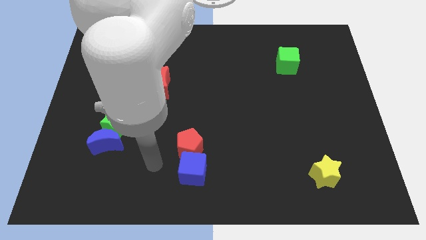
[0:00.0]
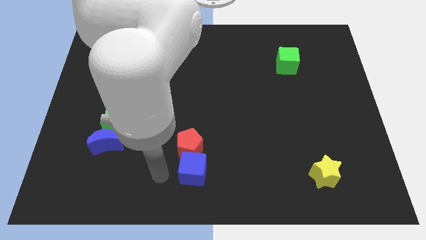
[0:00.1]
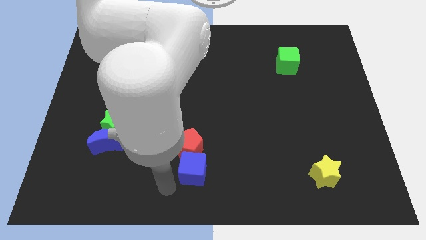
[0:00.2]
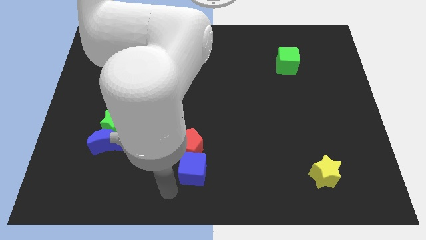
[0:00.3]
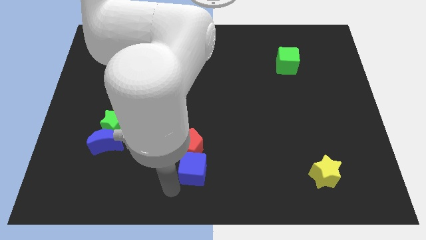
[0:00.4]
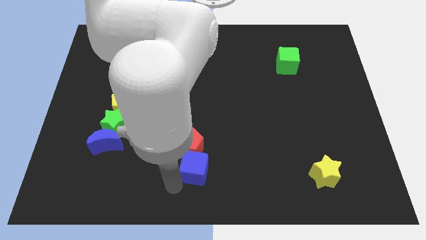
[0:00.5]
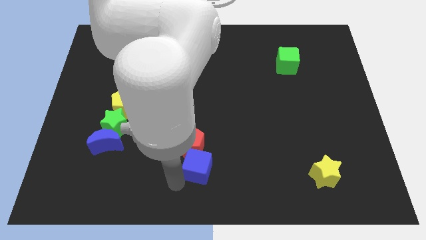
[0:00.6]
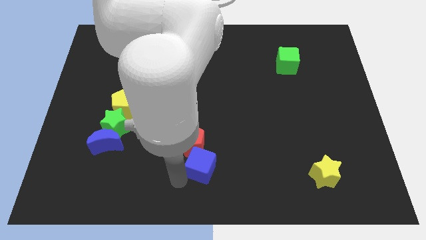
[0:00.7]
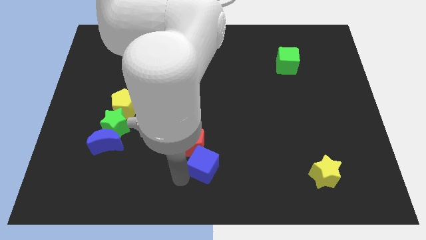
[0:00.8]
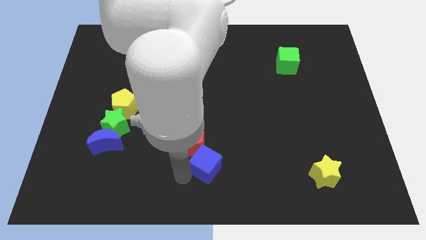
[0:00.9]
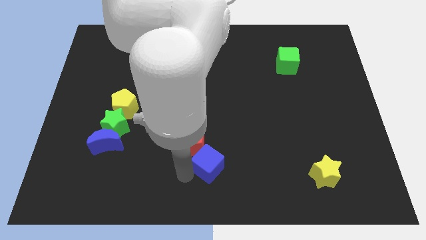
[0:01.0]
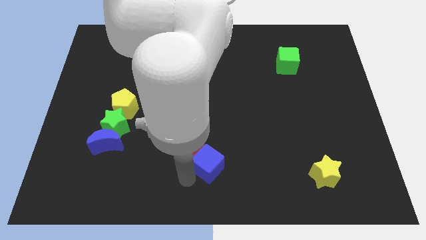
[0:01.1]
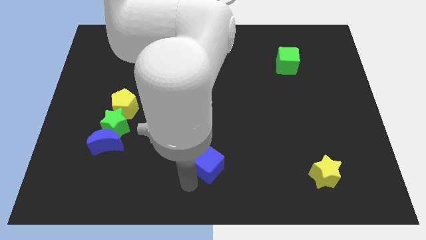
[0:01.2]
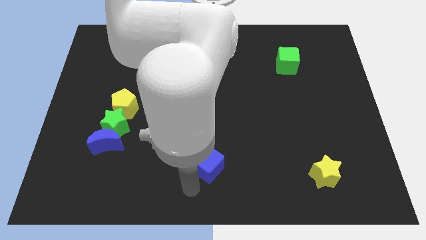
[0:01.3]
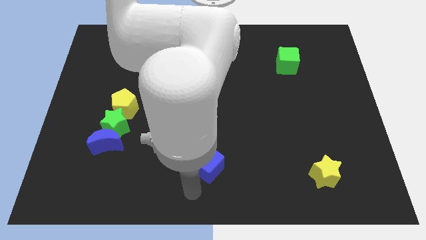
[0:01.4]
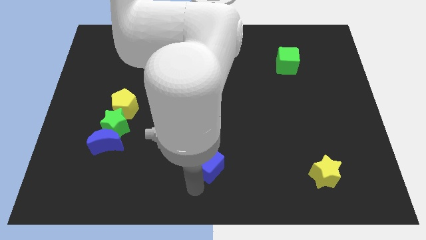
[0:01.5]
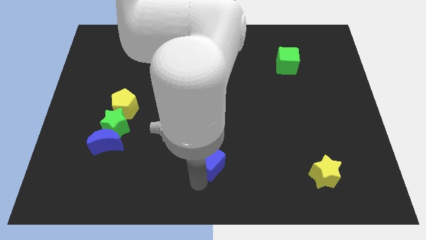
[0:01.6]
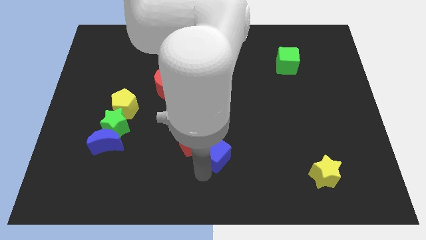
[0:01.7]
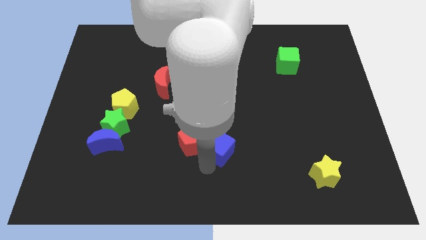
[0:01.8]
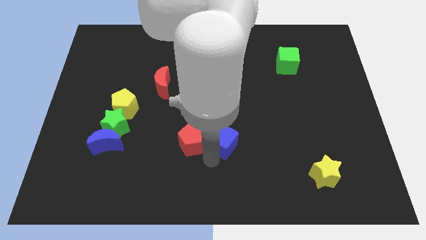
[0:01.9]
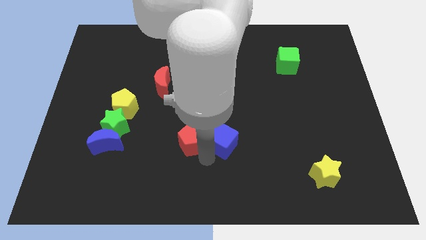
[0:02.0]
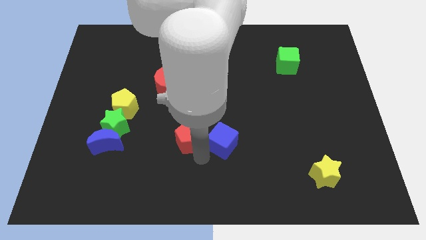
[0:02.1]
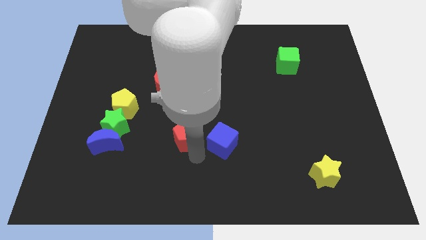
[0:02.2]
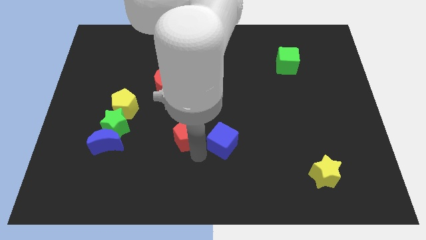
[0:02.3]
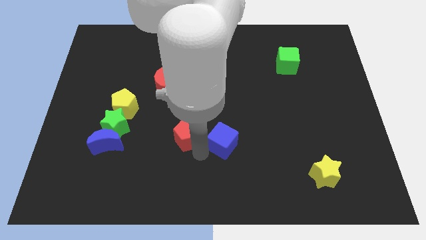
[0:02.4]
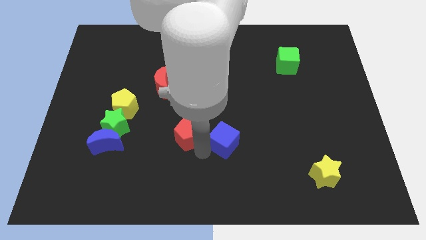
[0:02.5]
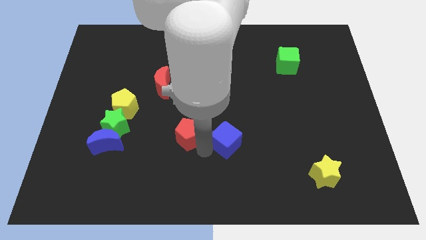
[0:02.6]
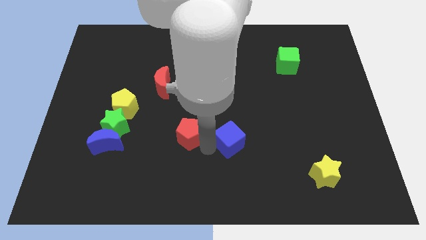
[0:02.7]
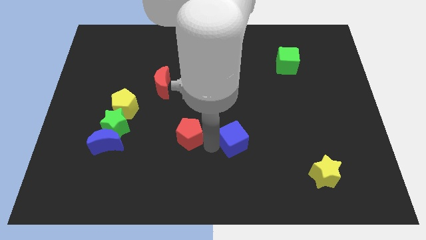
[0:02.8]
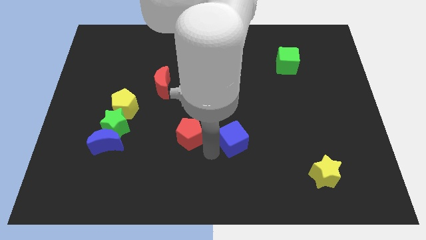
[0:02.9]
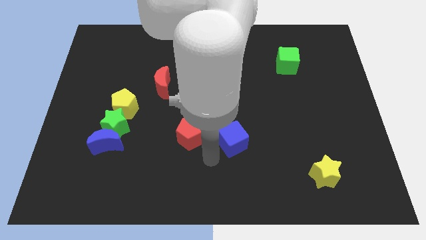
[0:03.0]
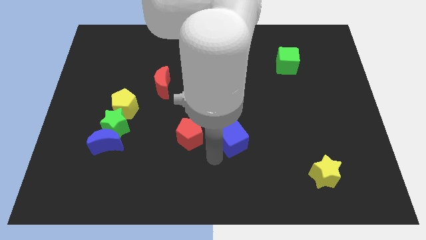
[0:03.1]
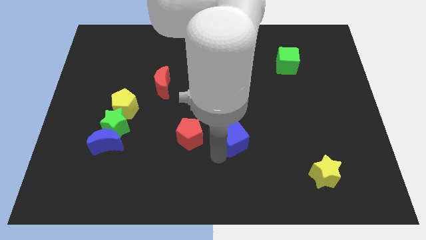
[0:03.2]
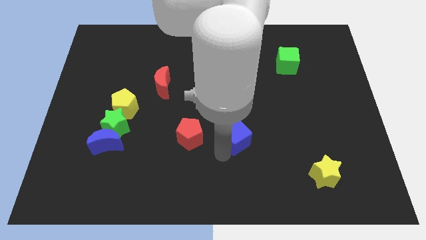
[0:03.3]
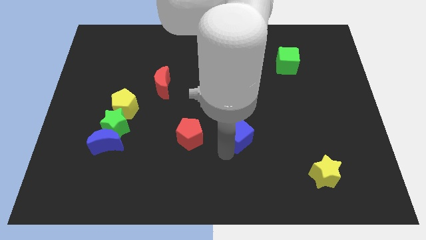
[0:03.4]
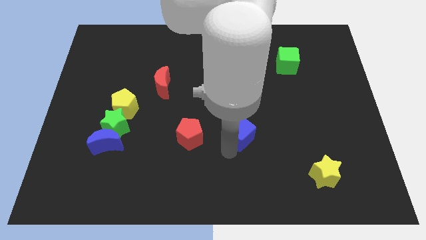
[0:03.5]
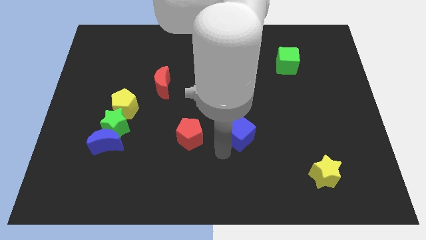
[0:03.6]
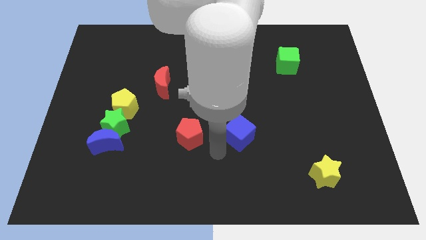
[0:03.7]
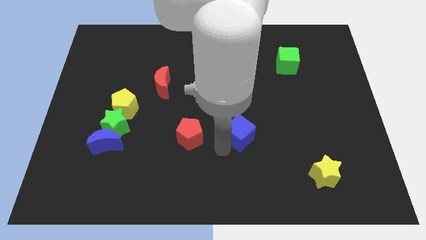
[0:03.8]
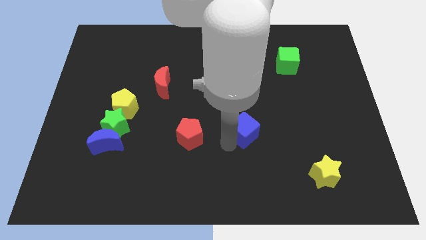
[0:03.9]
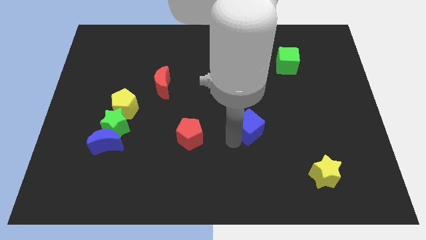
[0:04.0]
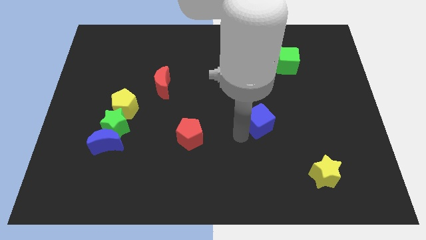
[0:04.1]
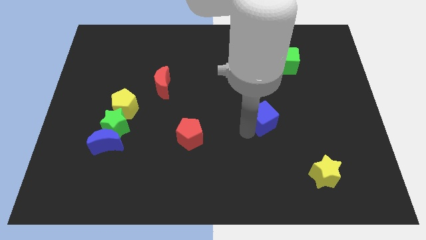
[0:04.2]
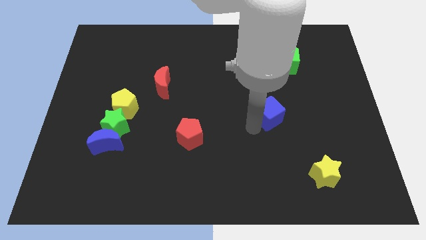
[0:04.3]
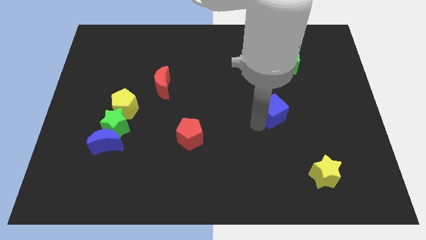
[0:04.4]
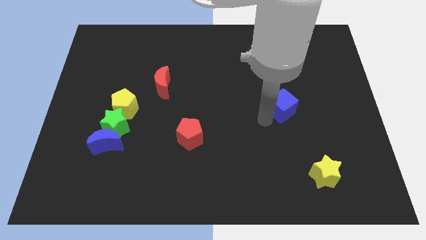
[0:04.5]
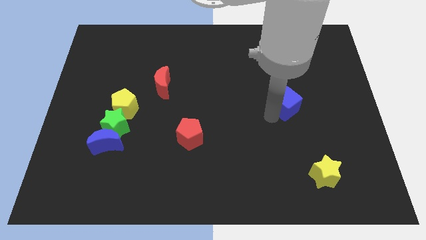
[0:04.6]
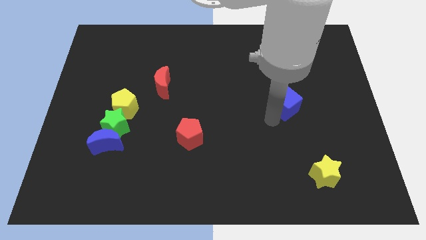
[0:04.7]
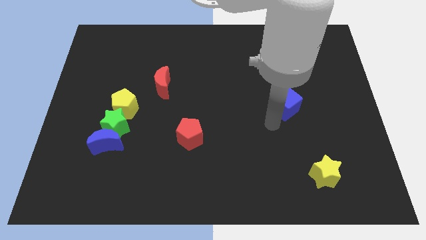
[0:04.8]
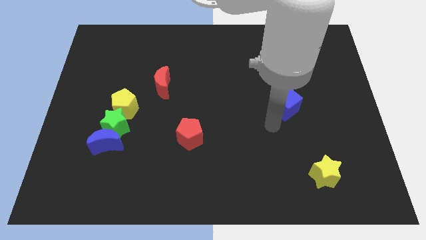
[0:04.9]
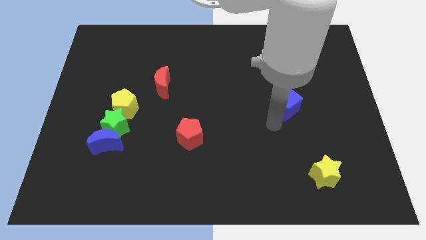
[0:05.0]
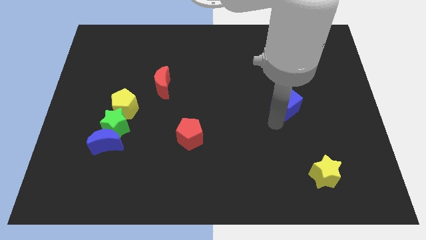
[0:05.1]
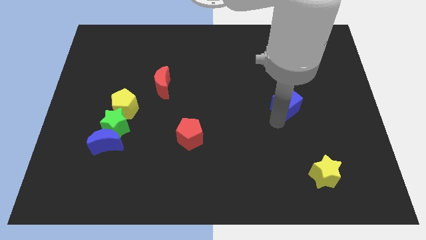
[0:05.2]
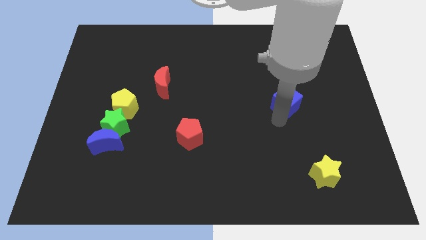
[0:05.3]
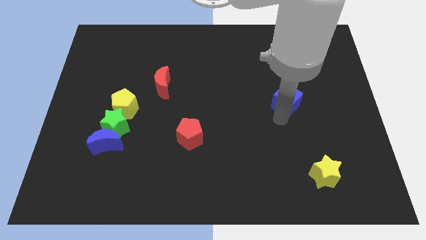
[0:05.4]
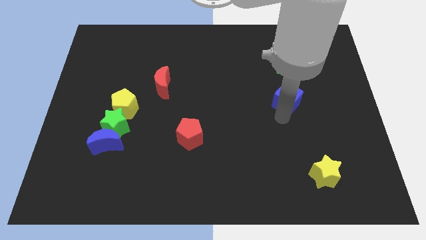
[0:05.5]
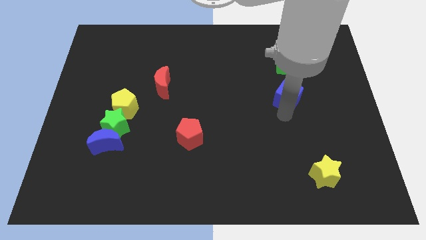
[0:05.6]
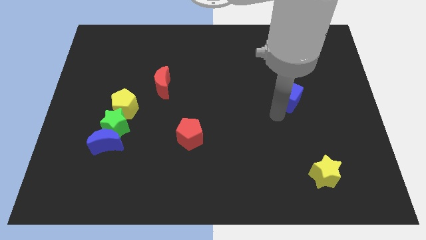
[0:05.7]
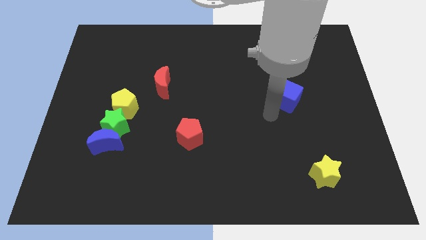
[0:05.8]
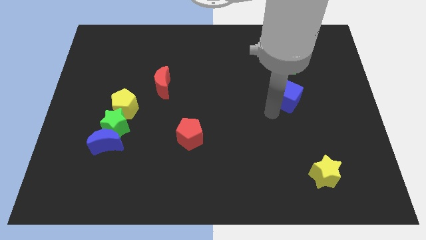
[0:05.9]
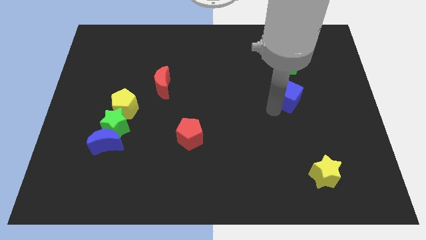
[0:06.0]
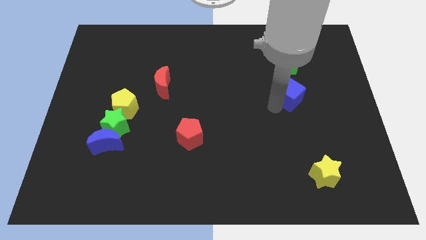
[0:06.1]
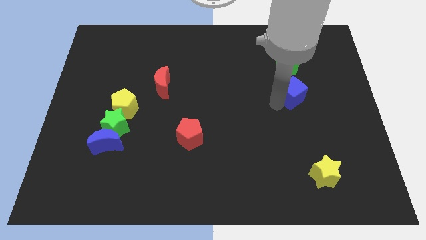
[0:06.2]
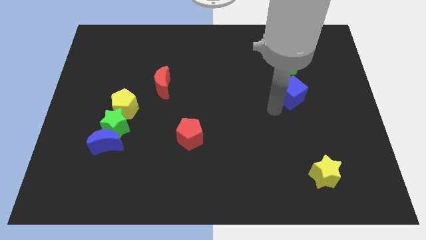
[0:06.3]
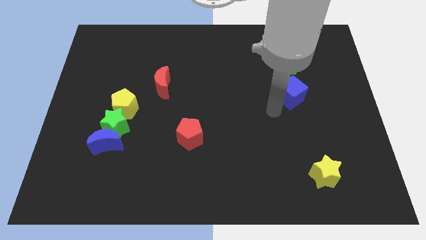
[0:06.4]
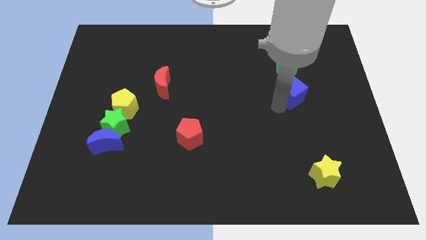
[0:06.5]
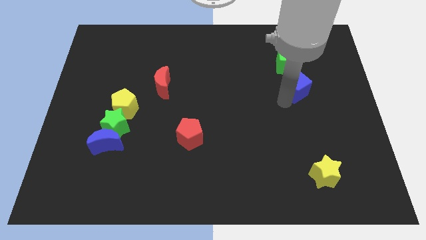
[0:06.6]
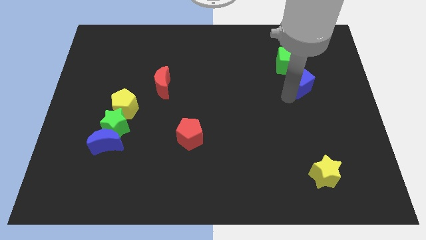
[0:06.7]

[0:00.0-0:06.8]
move the blue cube to the bottom right side of the green cube

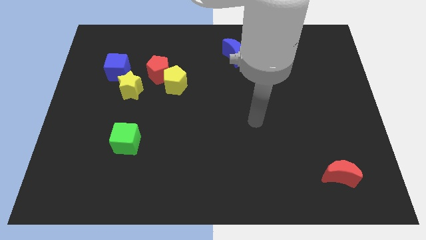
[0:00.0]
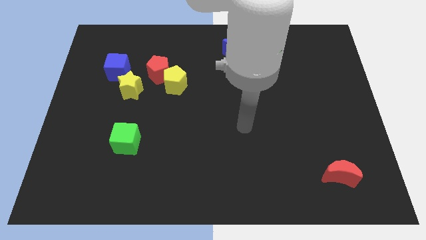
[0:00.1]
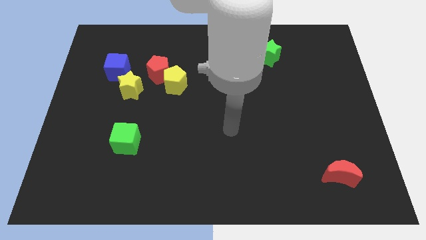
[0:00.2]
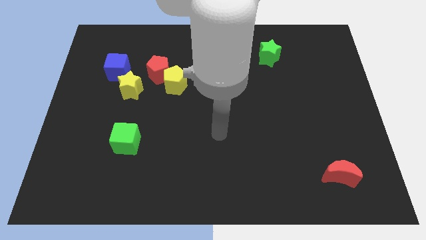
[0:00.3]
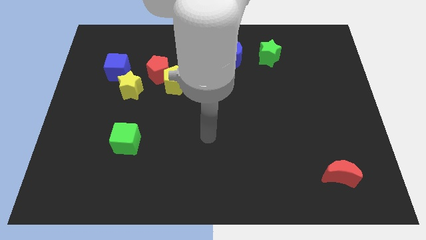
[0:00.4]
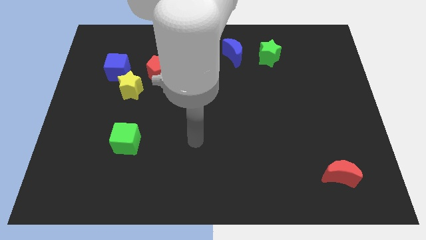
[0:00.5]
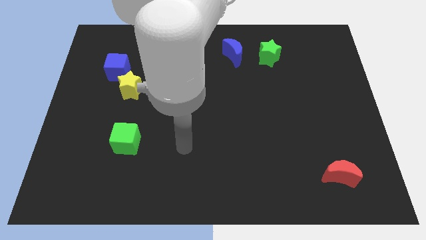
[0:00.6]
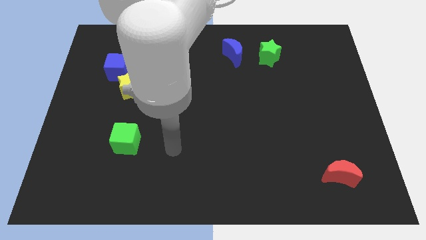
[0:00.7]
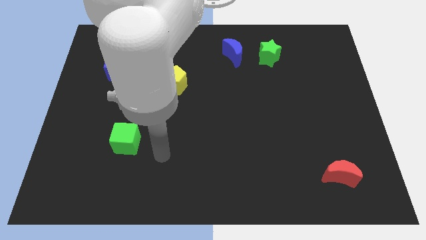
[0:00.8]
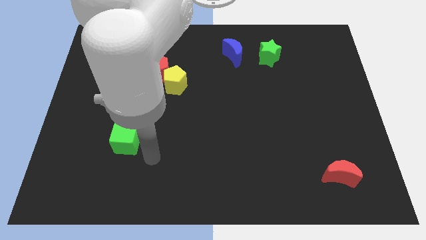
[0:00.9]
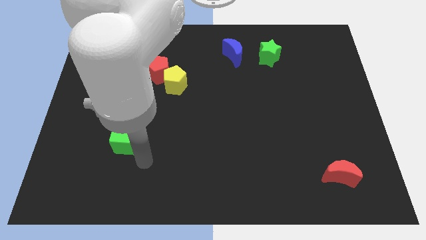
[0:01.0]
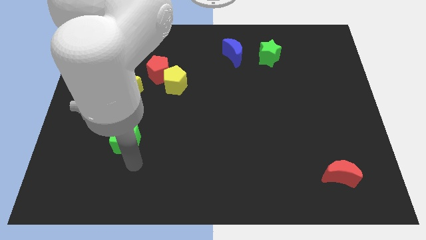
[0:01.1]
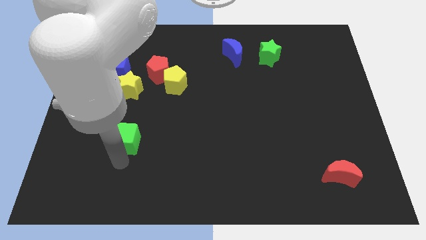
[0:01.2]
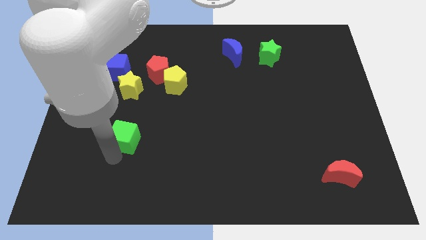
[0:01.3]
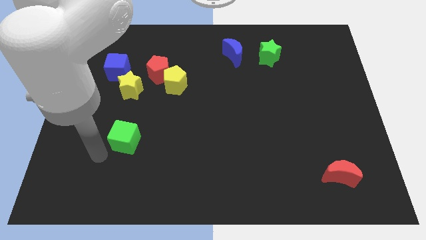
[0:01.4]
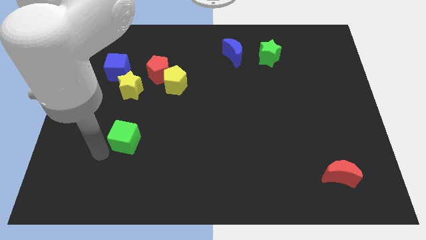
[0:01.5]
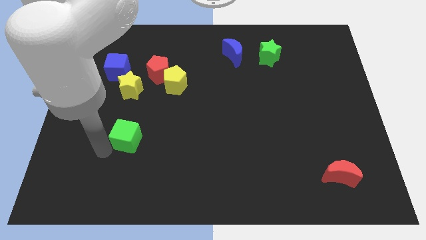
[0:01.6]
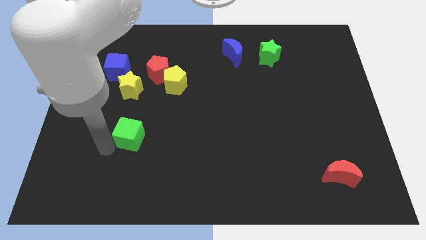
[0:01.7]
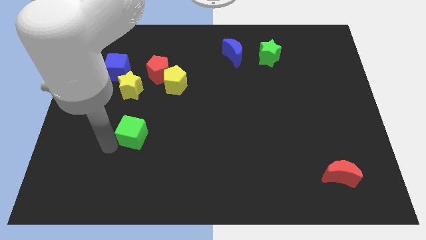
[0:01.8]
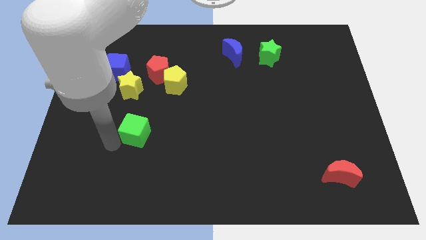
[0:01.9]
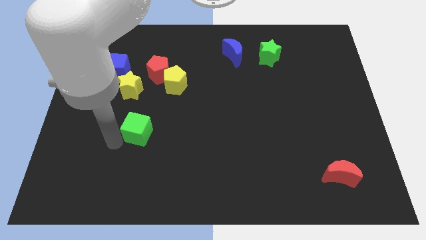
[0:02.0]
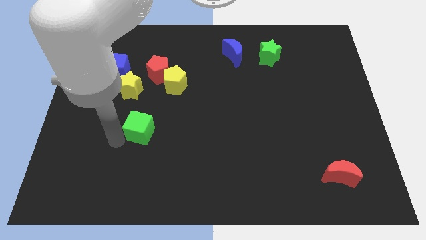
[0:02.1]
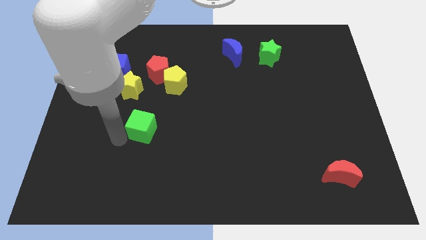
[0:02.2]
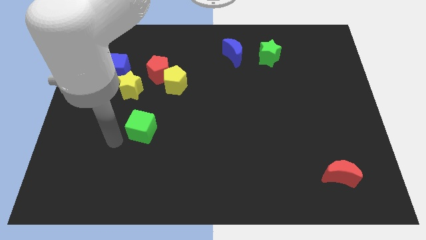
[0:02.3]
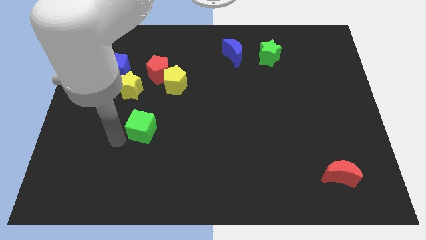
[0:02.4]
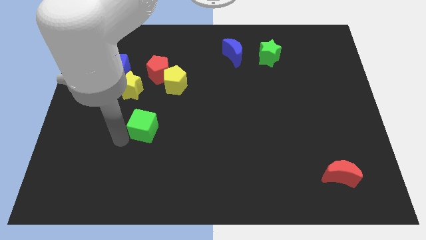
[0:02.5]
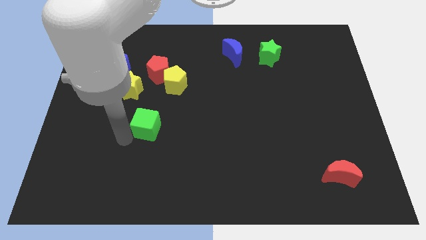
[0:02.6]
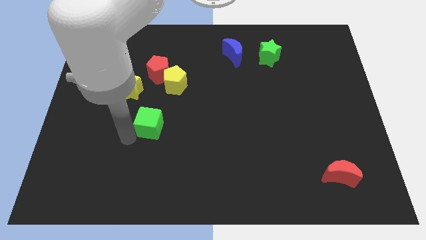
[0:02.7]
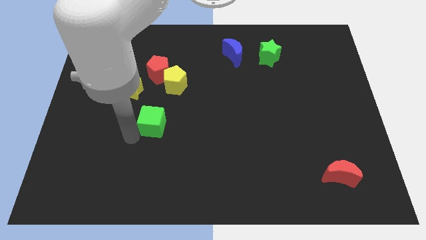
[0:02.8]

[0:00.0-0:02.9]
push the green cube to the bottom side of the yellow pentagon
